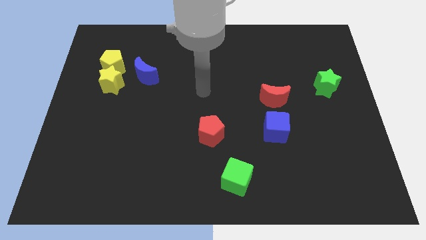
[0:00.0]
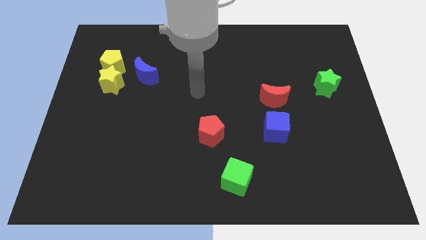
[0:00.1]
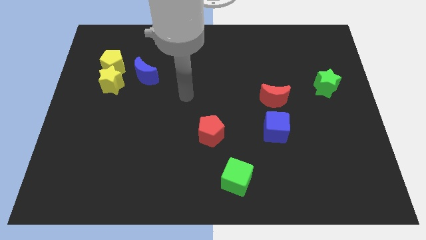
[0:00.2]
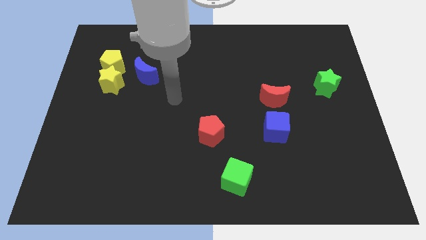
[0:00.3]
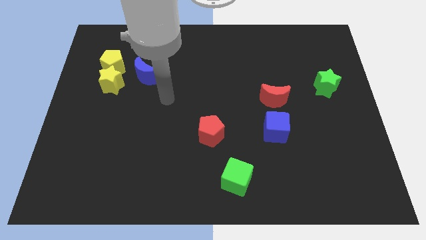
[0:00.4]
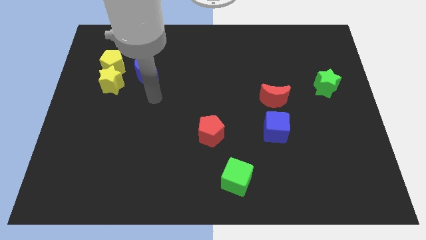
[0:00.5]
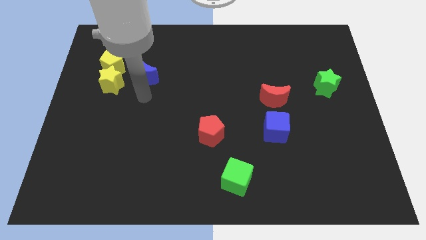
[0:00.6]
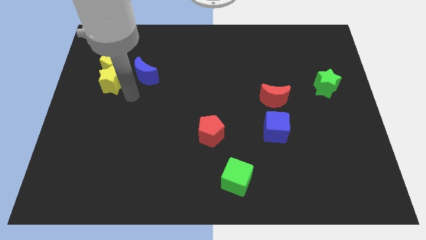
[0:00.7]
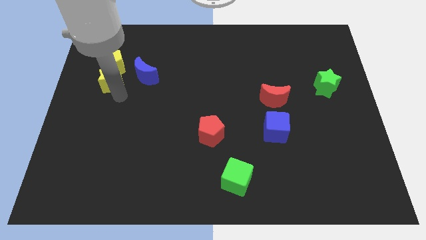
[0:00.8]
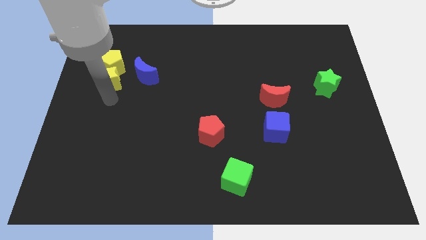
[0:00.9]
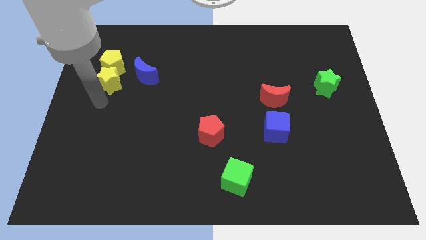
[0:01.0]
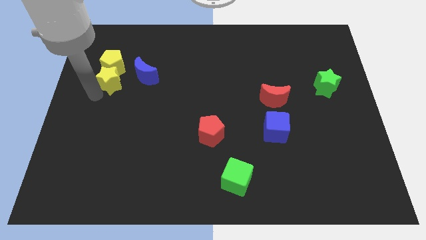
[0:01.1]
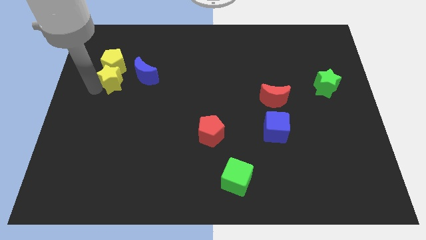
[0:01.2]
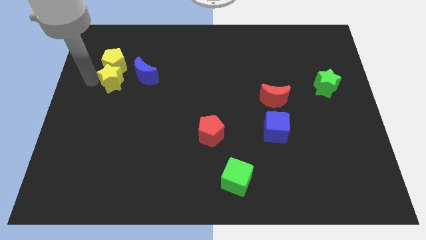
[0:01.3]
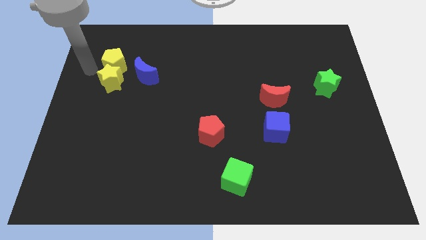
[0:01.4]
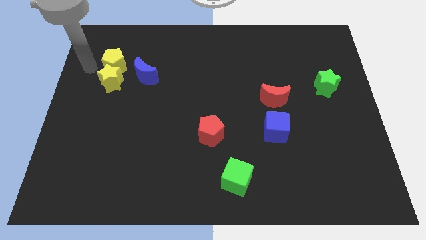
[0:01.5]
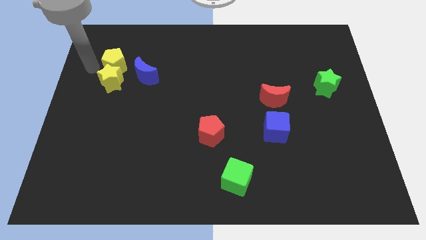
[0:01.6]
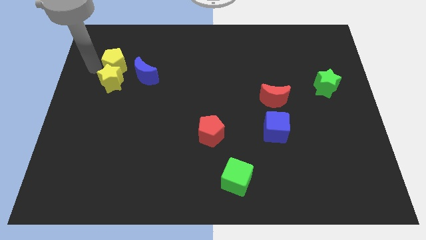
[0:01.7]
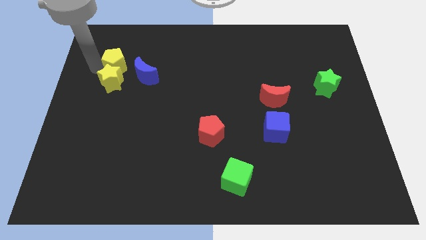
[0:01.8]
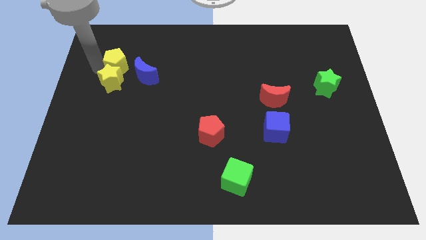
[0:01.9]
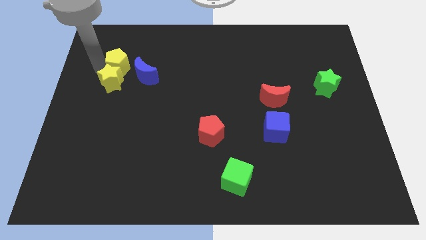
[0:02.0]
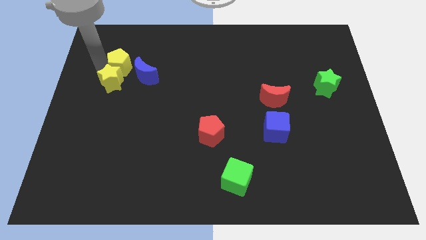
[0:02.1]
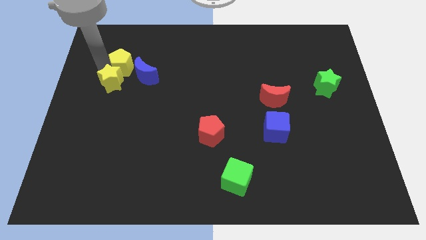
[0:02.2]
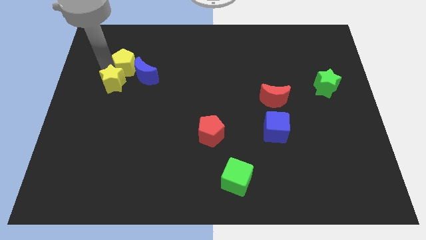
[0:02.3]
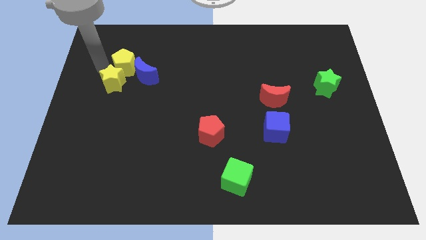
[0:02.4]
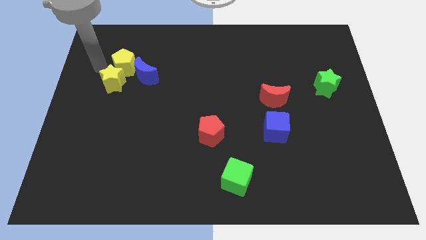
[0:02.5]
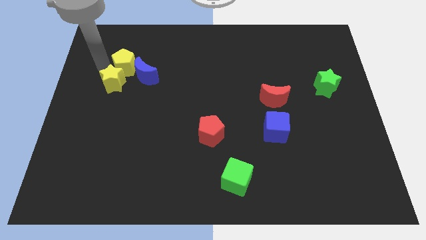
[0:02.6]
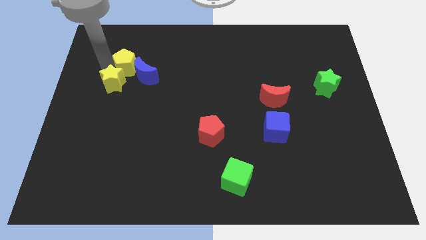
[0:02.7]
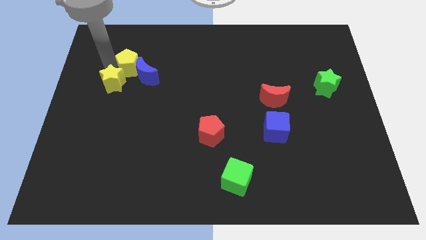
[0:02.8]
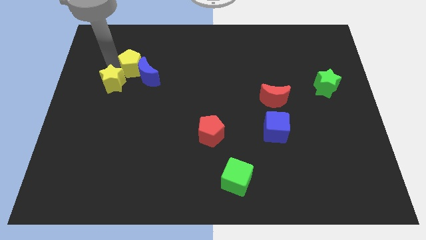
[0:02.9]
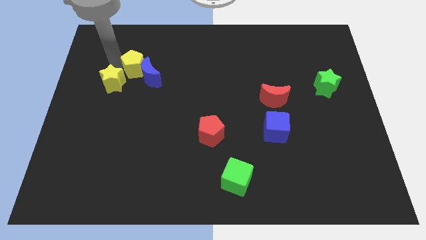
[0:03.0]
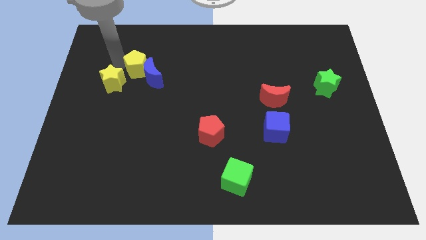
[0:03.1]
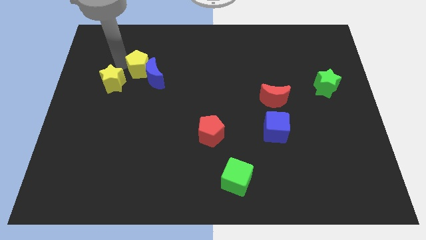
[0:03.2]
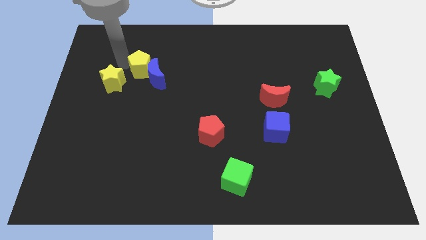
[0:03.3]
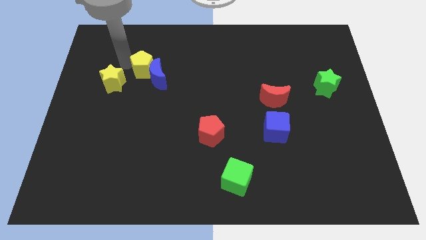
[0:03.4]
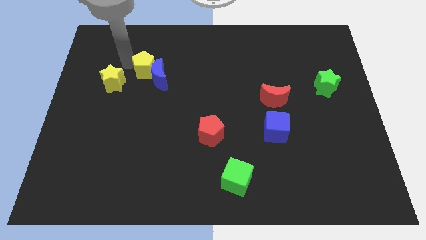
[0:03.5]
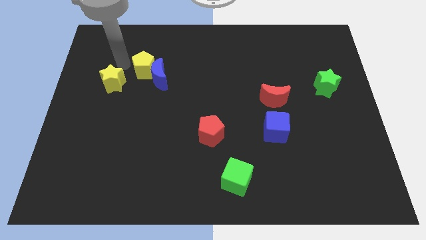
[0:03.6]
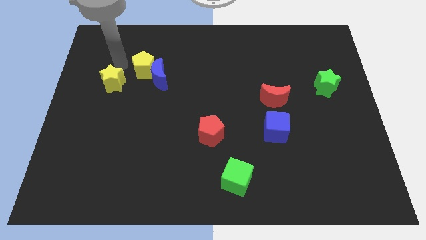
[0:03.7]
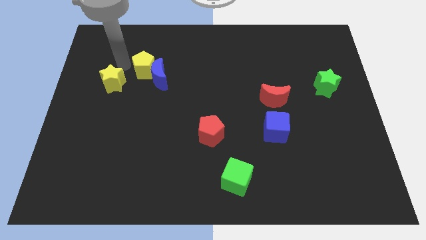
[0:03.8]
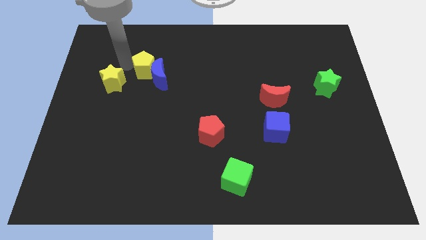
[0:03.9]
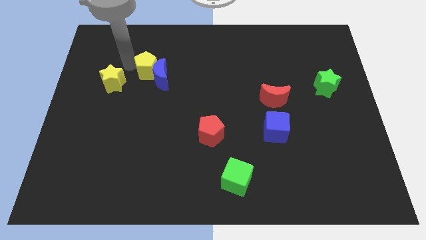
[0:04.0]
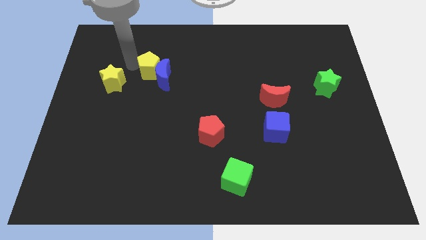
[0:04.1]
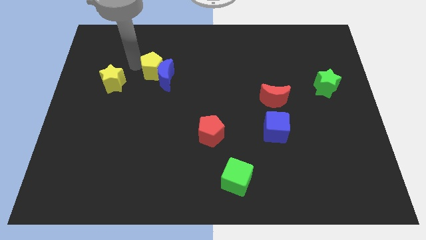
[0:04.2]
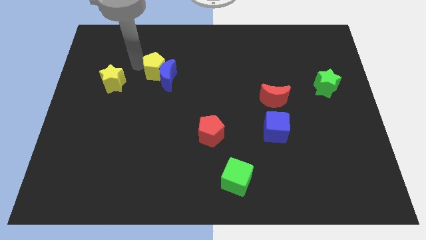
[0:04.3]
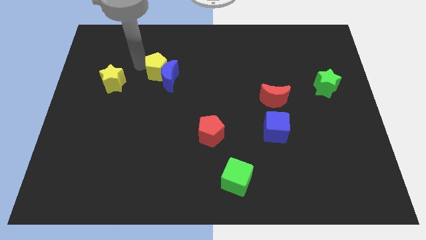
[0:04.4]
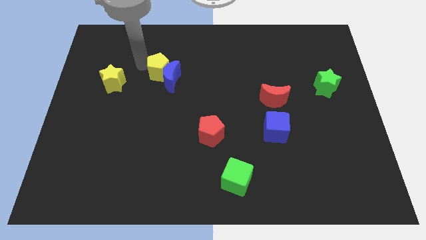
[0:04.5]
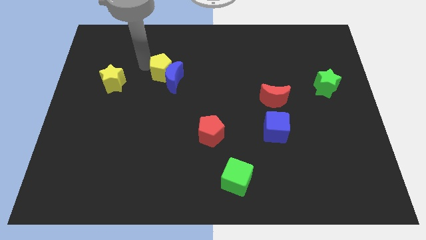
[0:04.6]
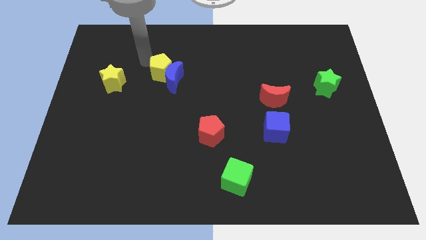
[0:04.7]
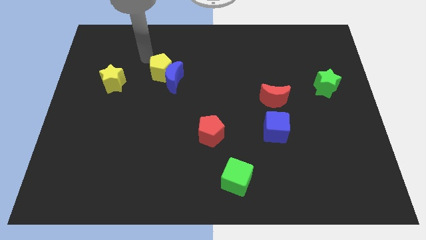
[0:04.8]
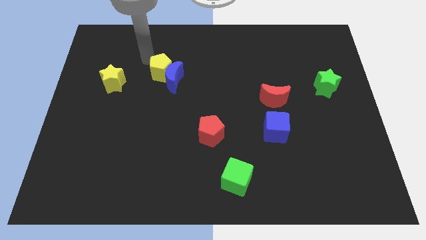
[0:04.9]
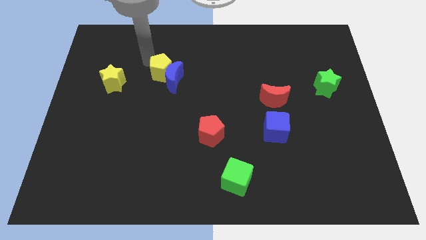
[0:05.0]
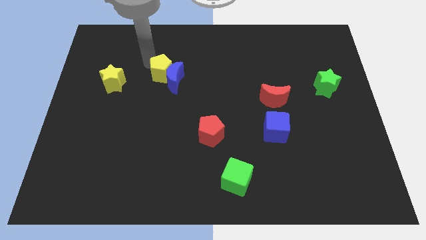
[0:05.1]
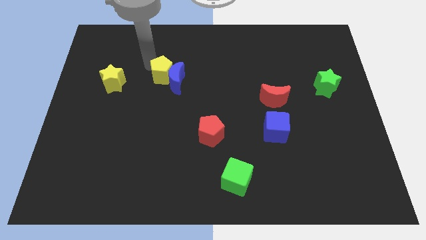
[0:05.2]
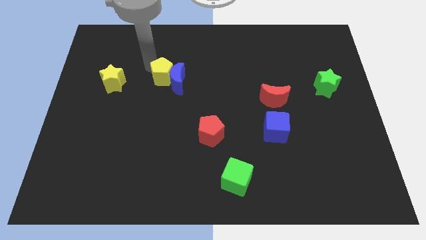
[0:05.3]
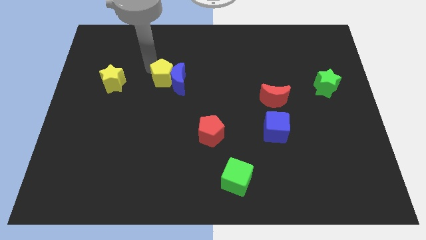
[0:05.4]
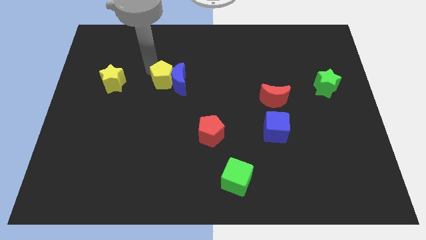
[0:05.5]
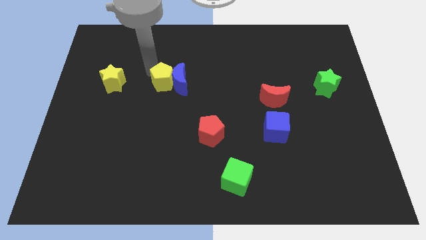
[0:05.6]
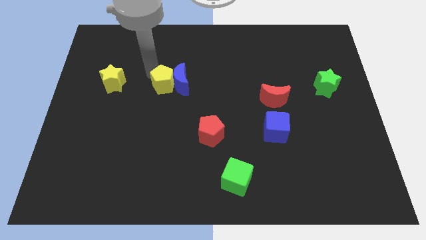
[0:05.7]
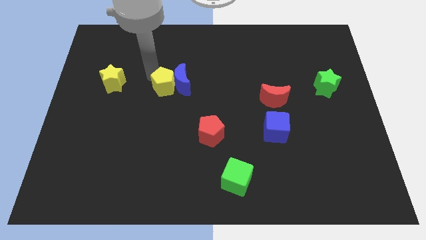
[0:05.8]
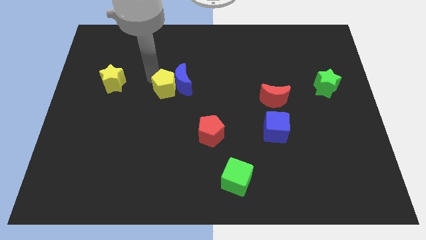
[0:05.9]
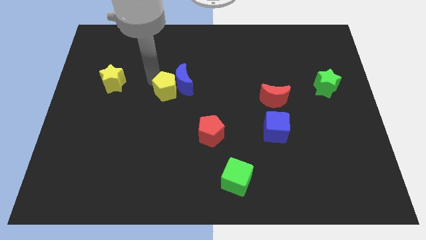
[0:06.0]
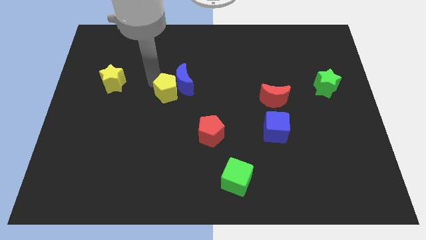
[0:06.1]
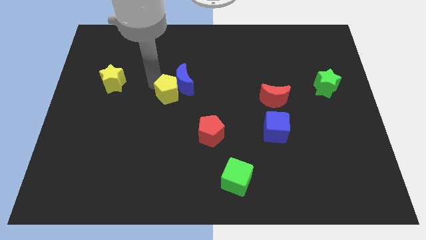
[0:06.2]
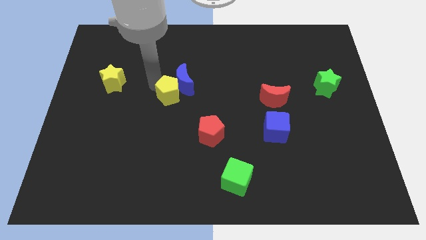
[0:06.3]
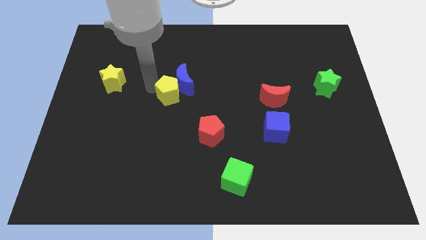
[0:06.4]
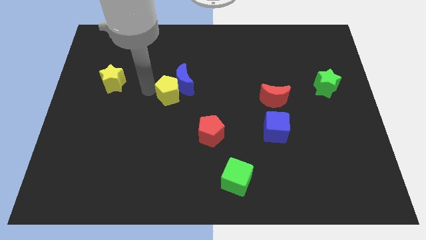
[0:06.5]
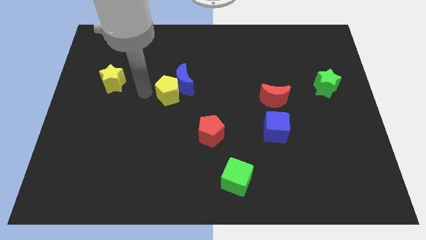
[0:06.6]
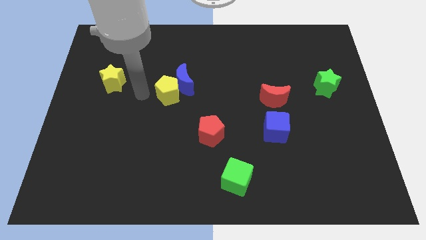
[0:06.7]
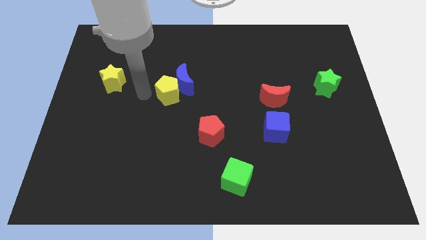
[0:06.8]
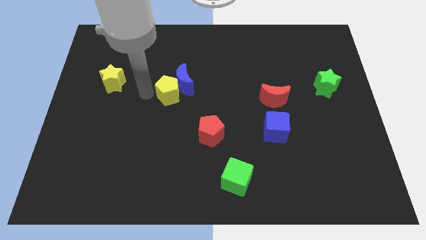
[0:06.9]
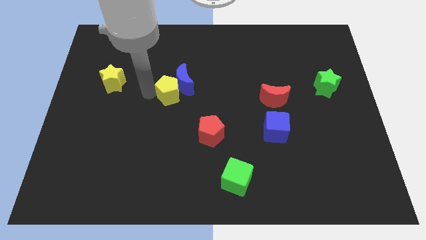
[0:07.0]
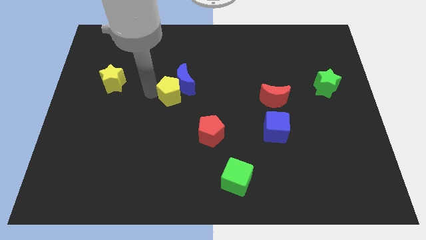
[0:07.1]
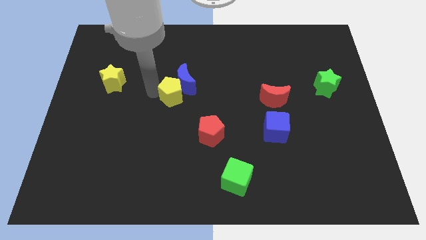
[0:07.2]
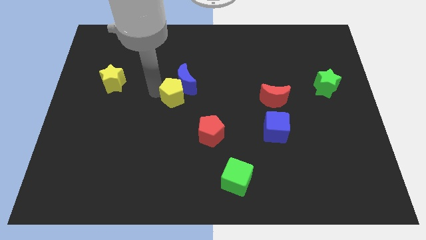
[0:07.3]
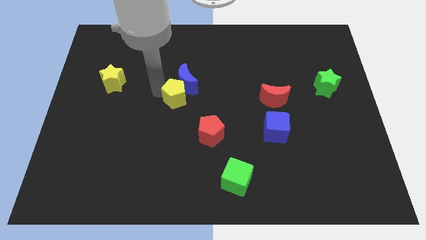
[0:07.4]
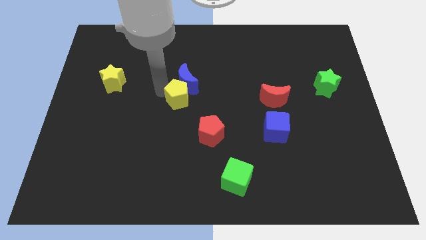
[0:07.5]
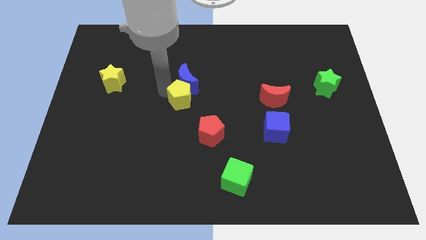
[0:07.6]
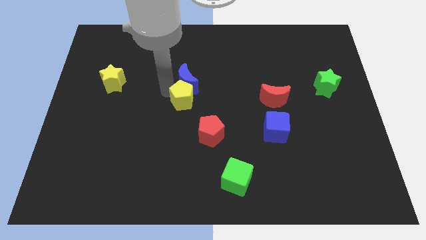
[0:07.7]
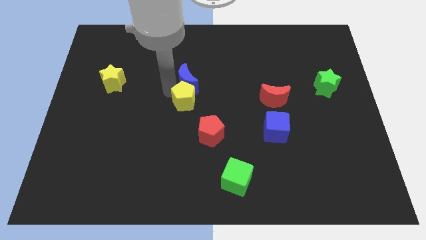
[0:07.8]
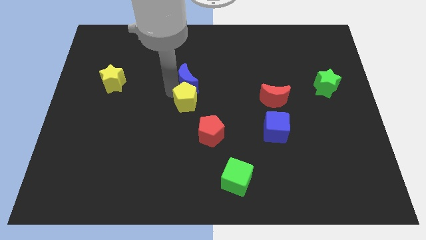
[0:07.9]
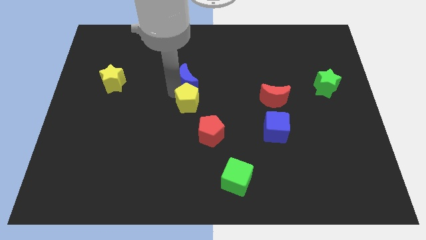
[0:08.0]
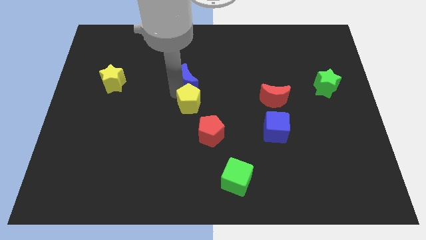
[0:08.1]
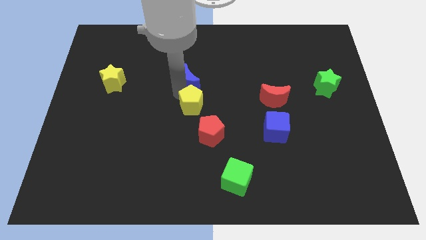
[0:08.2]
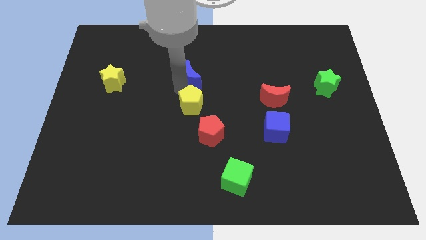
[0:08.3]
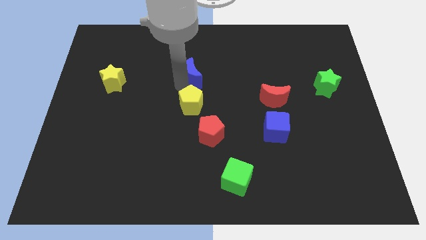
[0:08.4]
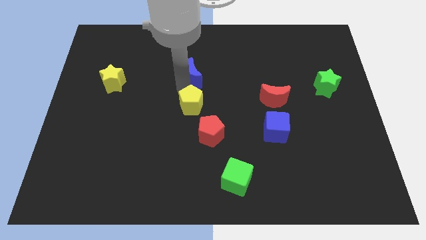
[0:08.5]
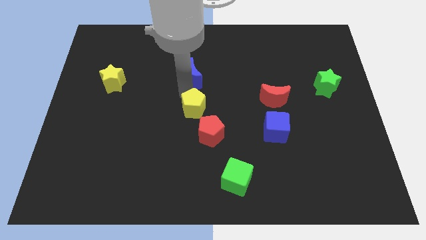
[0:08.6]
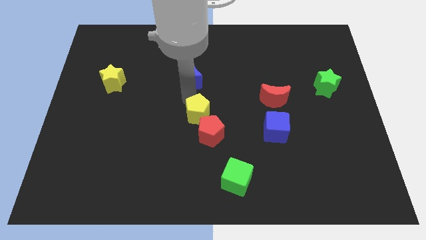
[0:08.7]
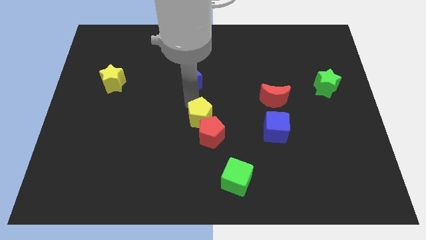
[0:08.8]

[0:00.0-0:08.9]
push the yellow pentagon to the red pentagon
